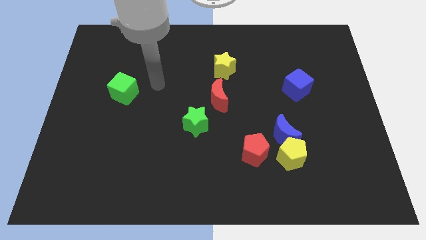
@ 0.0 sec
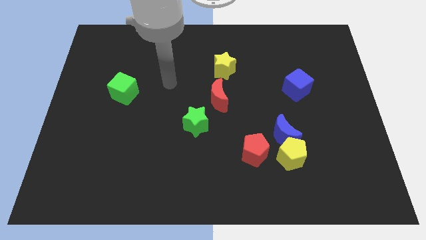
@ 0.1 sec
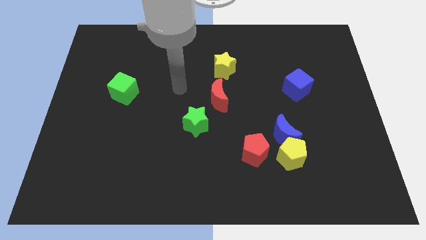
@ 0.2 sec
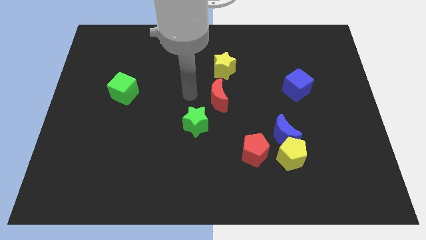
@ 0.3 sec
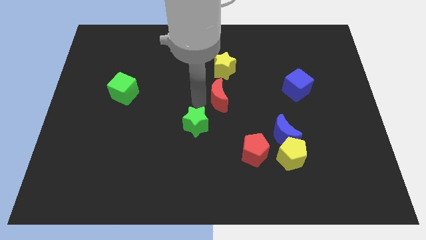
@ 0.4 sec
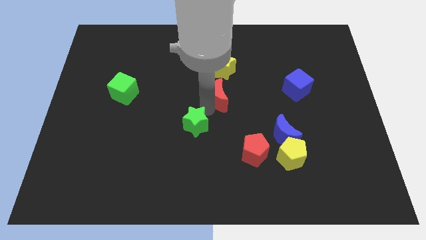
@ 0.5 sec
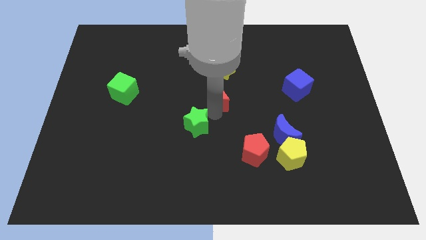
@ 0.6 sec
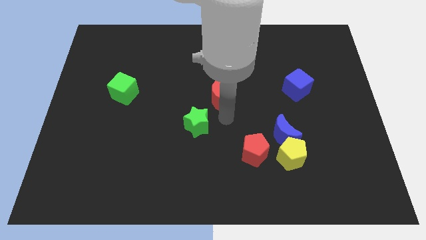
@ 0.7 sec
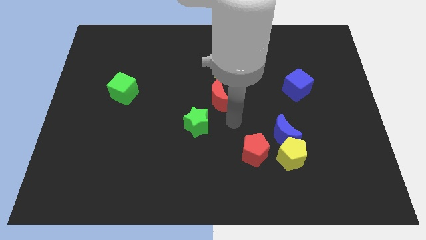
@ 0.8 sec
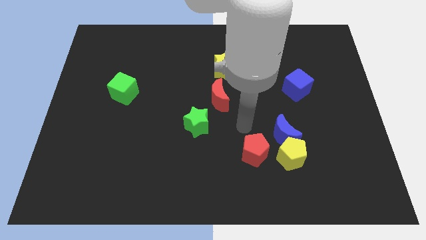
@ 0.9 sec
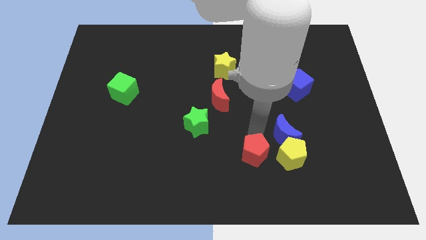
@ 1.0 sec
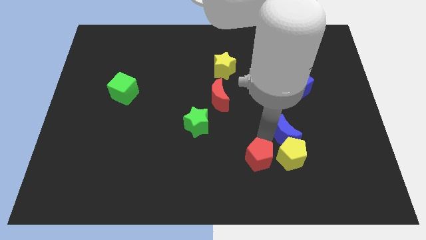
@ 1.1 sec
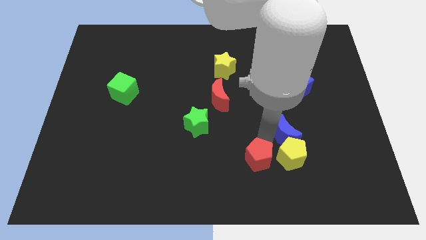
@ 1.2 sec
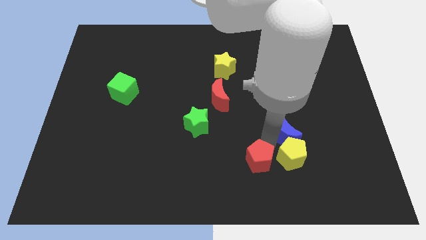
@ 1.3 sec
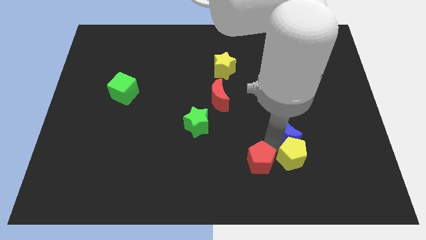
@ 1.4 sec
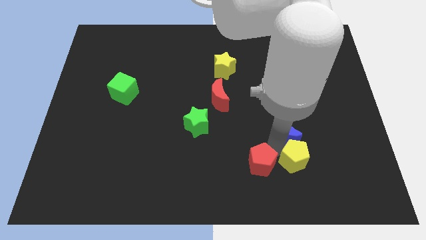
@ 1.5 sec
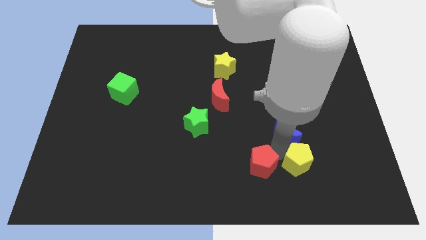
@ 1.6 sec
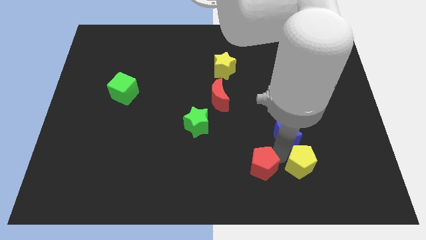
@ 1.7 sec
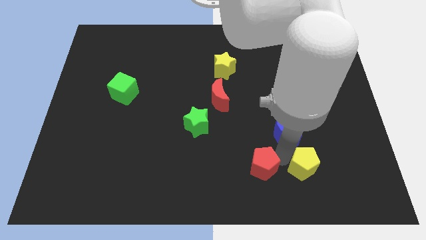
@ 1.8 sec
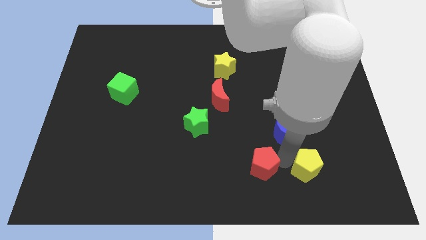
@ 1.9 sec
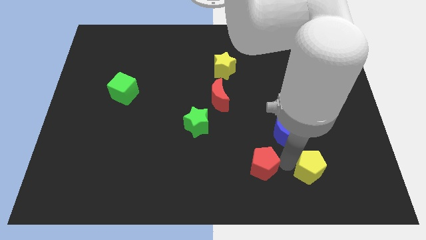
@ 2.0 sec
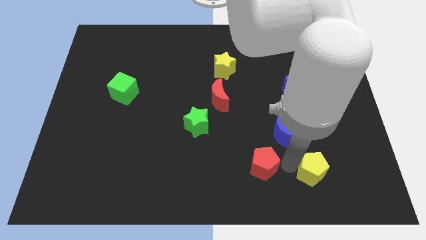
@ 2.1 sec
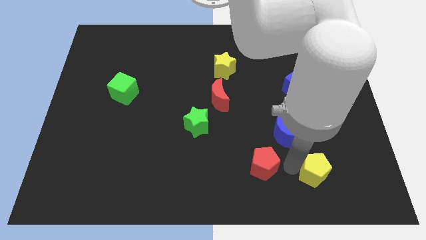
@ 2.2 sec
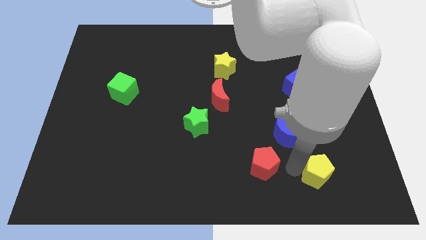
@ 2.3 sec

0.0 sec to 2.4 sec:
pull the yellow pentagon apart from the blue moon and red pentagon

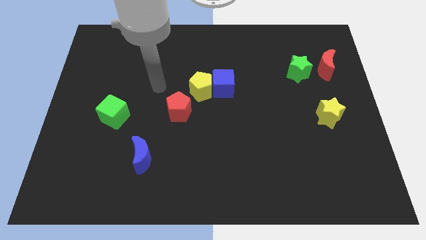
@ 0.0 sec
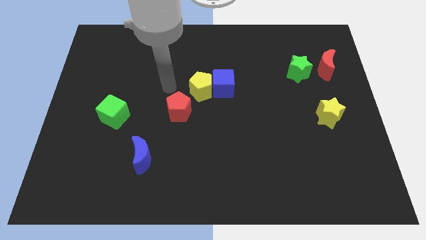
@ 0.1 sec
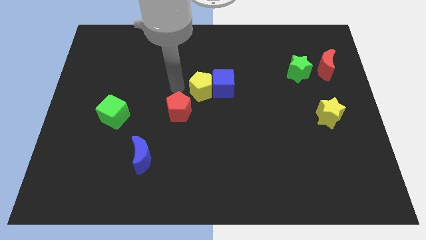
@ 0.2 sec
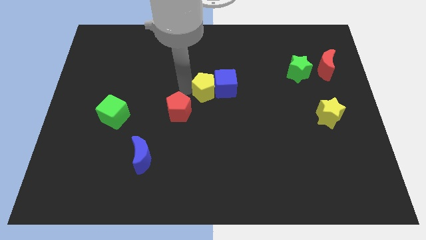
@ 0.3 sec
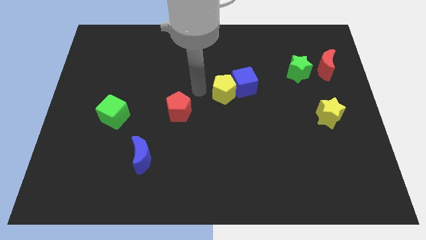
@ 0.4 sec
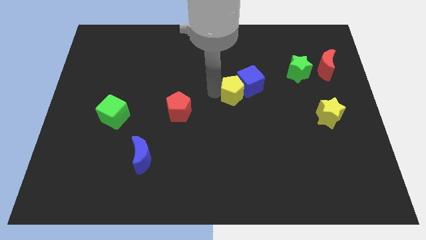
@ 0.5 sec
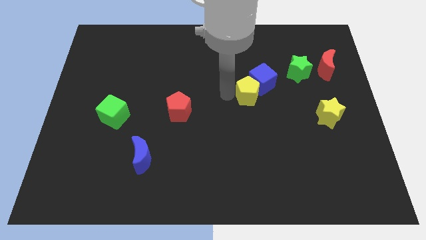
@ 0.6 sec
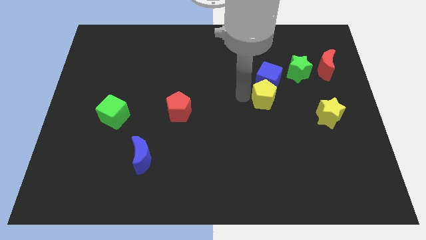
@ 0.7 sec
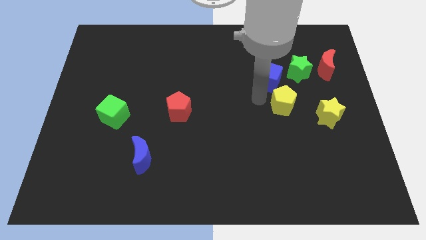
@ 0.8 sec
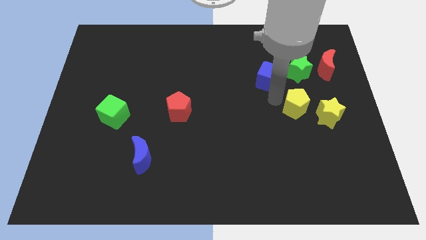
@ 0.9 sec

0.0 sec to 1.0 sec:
move the blue cube away from the yellow pentagon

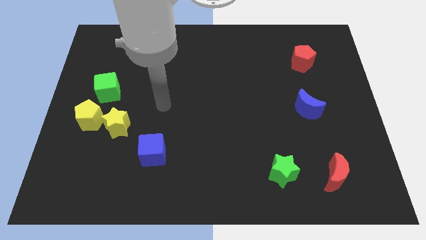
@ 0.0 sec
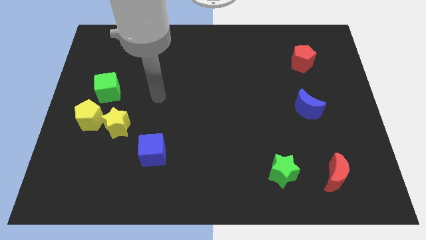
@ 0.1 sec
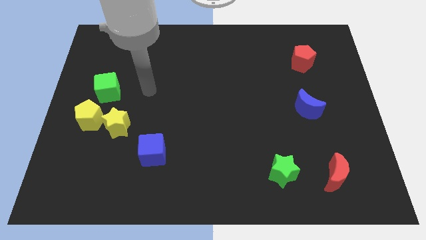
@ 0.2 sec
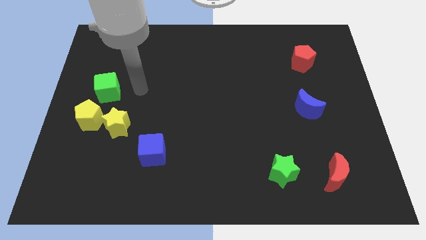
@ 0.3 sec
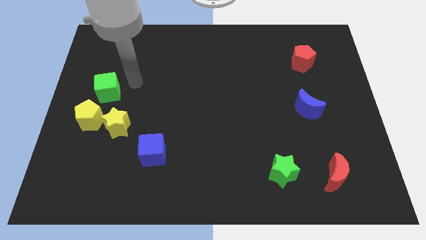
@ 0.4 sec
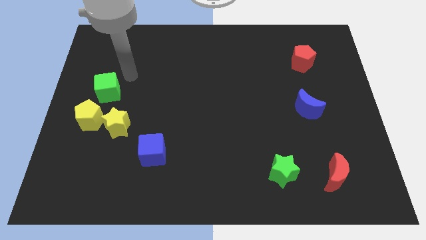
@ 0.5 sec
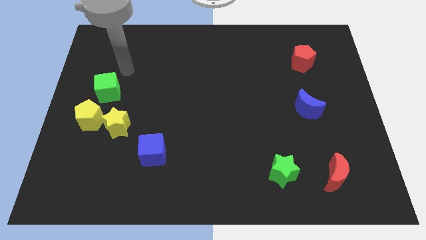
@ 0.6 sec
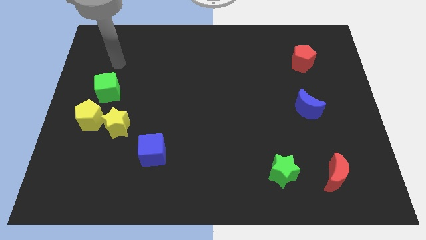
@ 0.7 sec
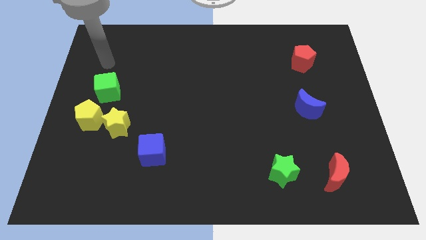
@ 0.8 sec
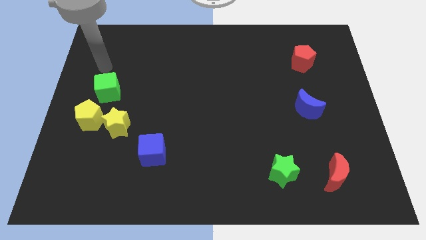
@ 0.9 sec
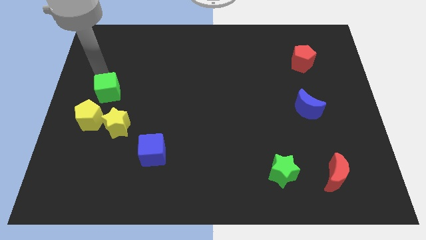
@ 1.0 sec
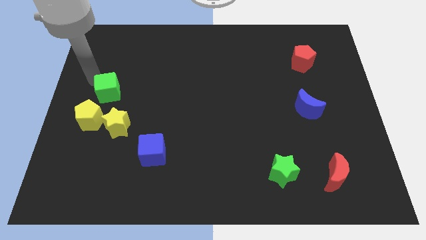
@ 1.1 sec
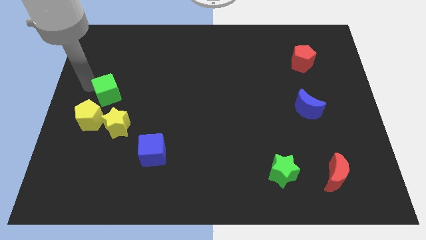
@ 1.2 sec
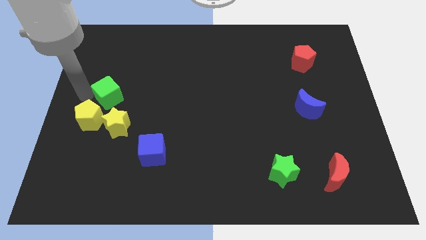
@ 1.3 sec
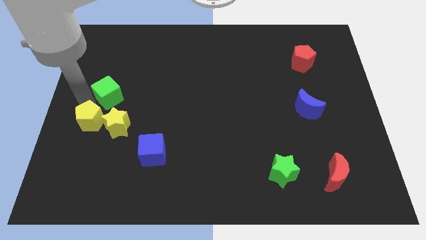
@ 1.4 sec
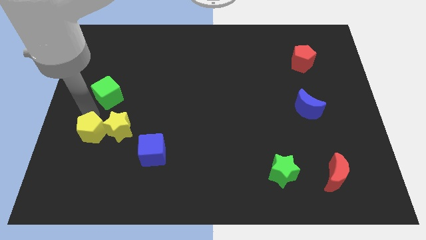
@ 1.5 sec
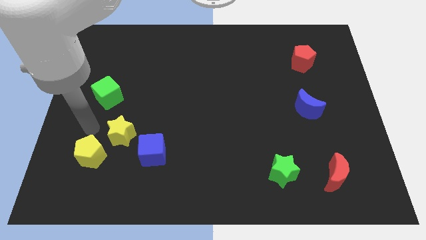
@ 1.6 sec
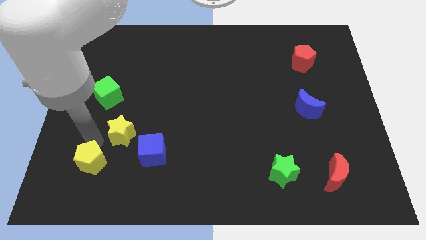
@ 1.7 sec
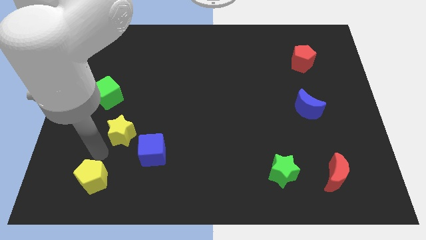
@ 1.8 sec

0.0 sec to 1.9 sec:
separate the yellow star from the yellow pentagon

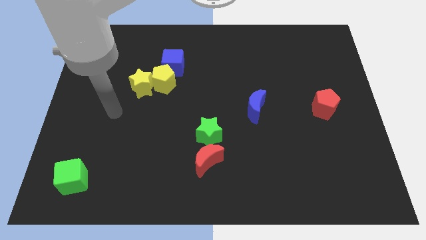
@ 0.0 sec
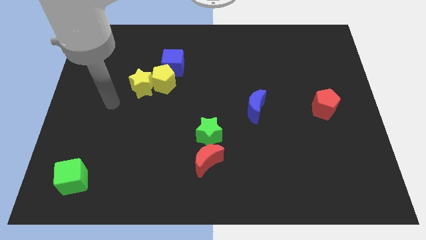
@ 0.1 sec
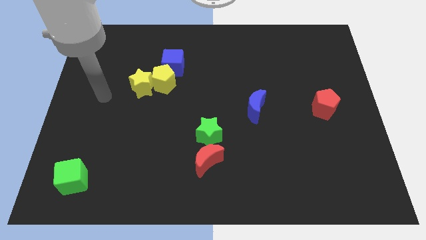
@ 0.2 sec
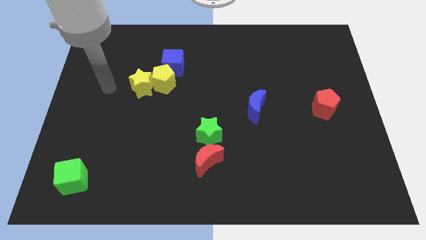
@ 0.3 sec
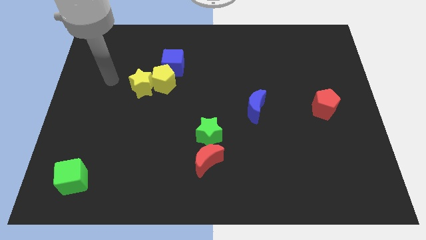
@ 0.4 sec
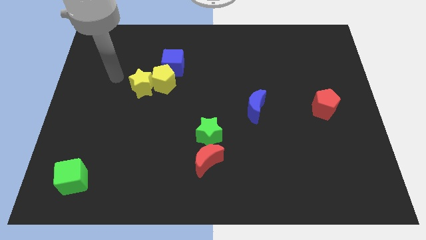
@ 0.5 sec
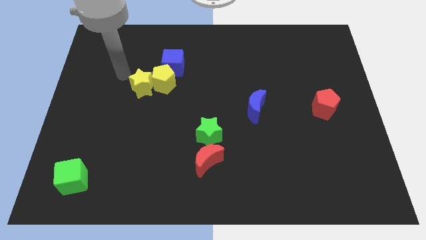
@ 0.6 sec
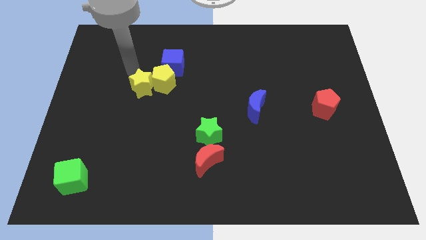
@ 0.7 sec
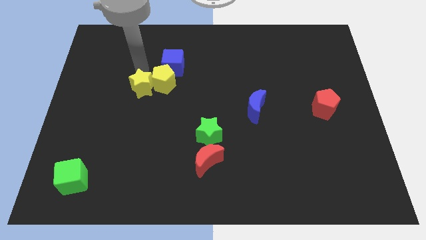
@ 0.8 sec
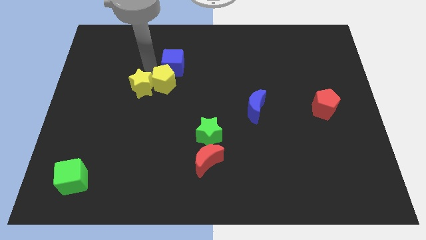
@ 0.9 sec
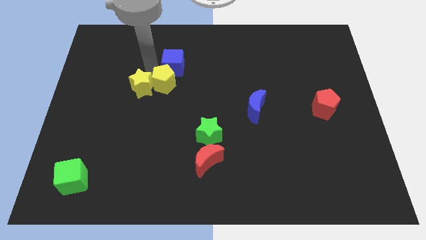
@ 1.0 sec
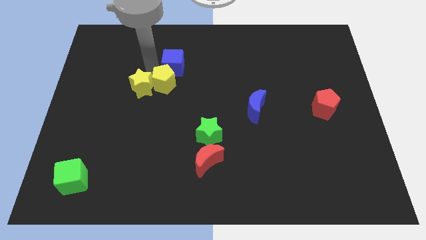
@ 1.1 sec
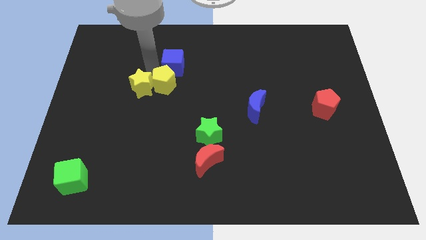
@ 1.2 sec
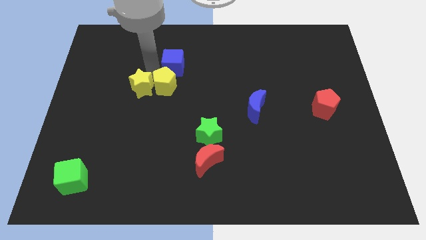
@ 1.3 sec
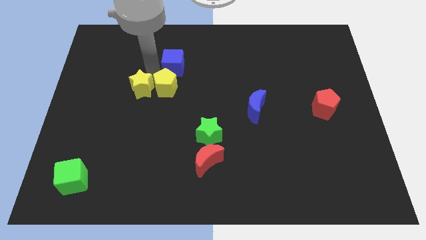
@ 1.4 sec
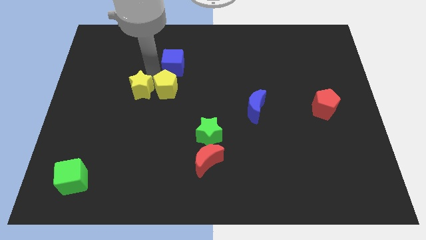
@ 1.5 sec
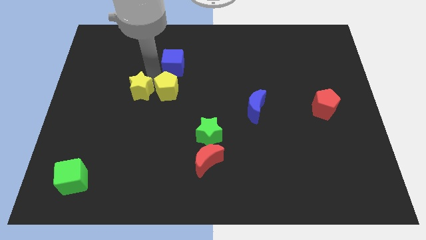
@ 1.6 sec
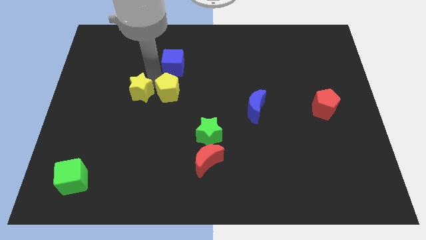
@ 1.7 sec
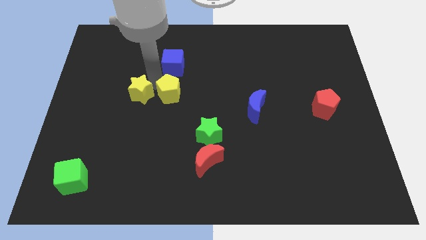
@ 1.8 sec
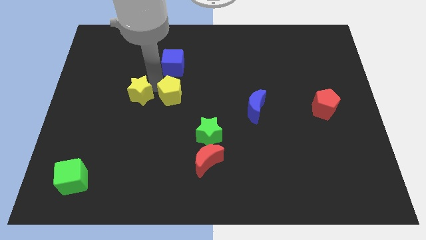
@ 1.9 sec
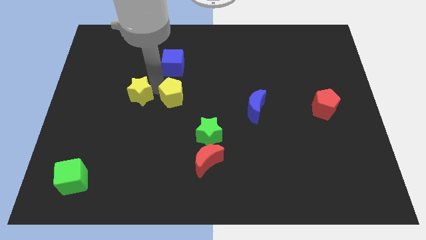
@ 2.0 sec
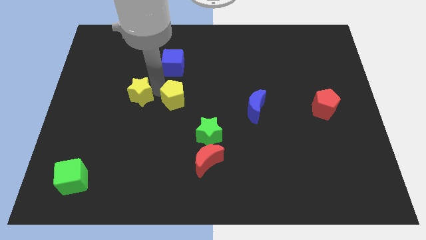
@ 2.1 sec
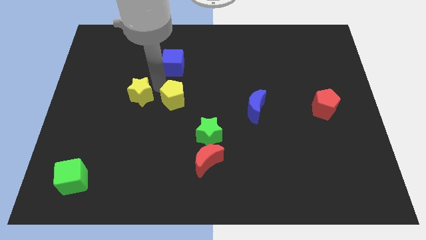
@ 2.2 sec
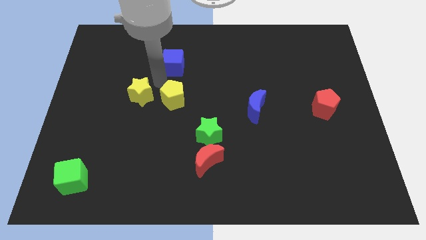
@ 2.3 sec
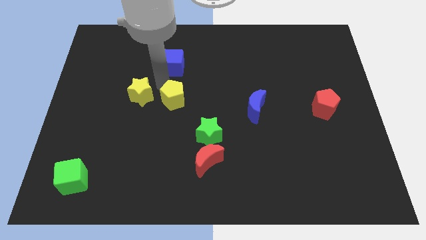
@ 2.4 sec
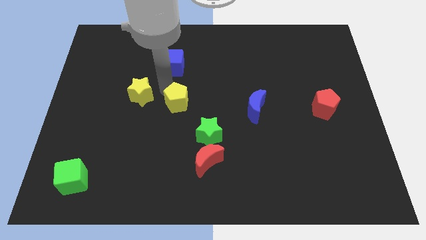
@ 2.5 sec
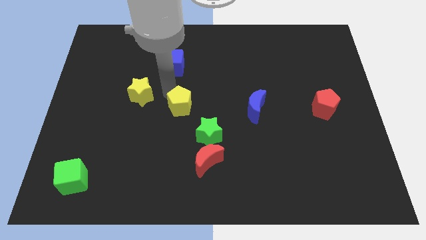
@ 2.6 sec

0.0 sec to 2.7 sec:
move the yellow pentagon away from the yellow star and blue cube

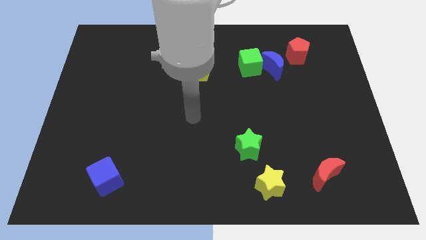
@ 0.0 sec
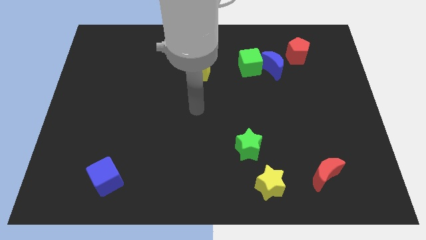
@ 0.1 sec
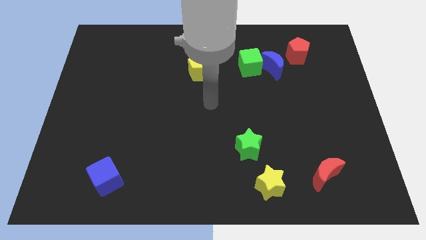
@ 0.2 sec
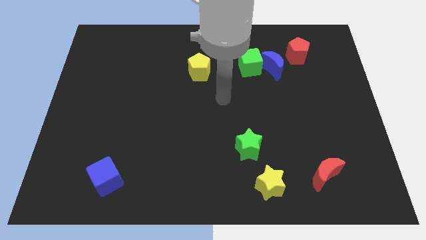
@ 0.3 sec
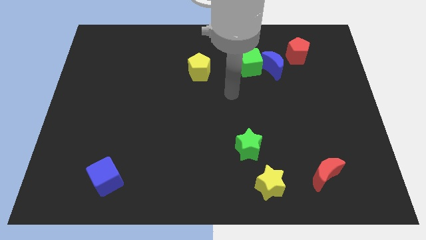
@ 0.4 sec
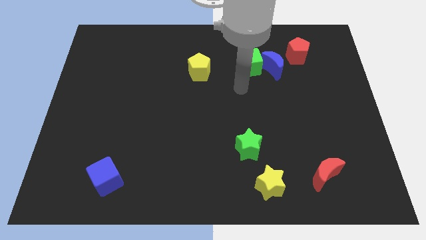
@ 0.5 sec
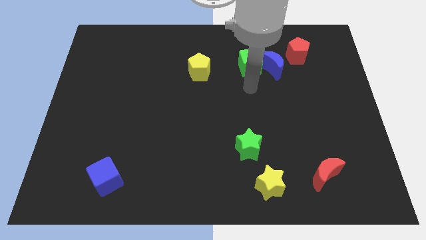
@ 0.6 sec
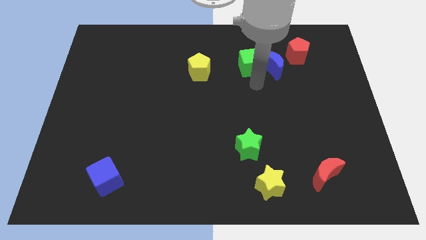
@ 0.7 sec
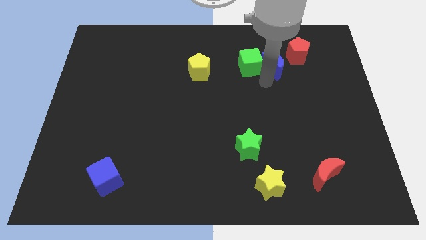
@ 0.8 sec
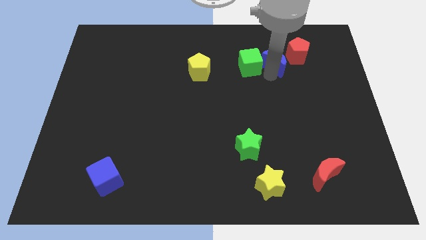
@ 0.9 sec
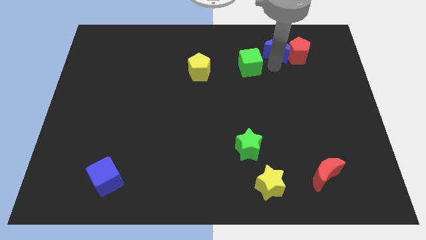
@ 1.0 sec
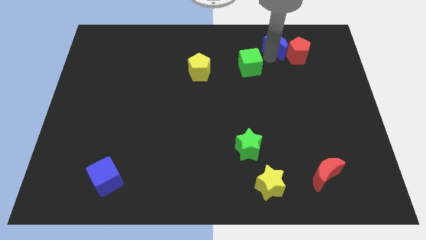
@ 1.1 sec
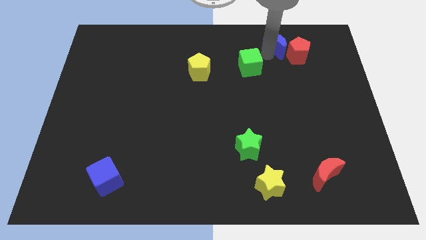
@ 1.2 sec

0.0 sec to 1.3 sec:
pull the green cube apart from the blue moon

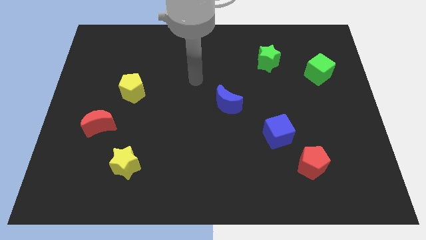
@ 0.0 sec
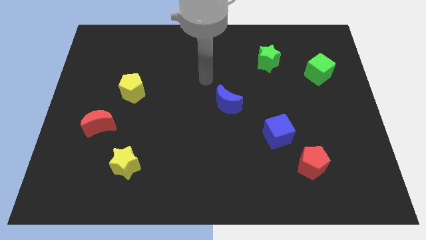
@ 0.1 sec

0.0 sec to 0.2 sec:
move the red pentagon away from the blue cube
